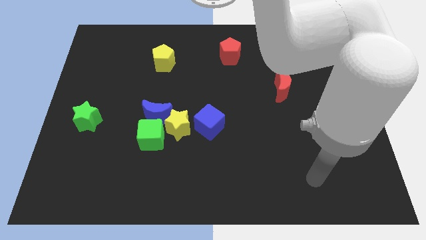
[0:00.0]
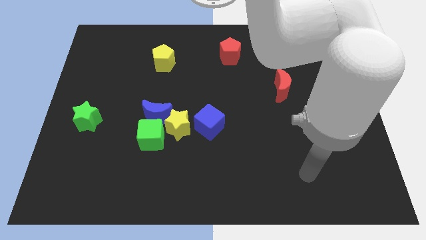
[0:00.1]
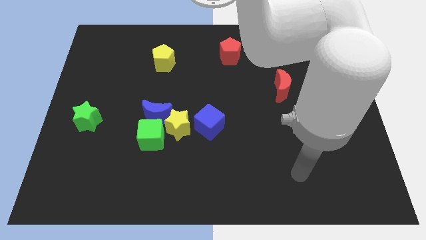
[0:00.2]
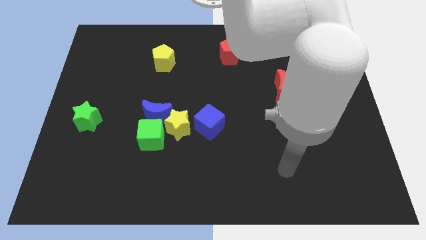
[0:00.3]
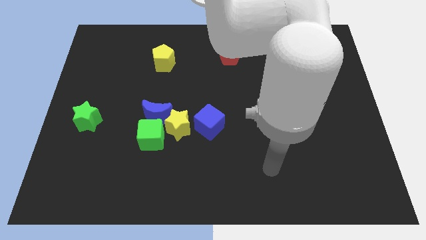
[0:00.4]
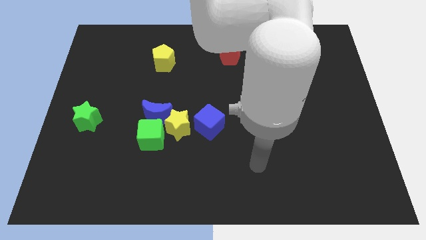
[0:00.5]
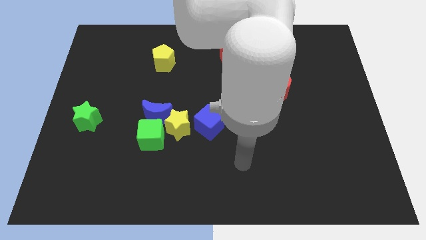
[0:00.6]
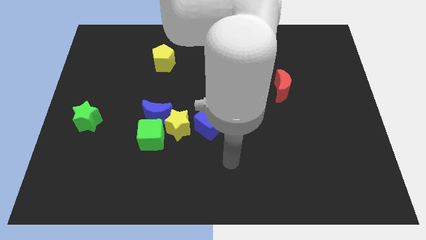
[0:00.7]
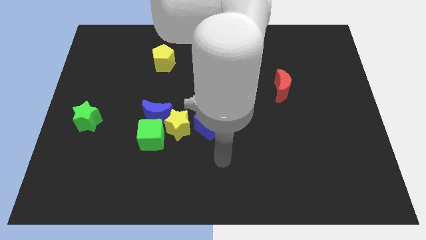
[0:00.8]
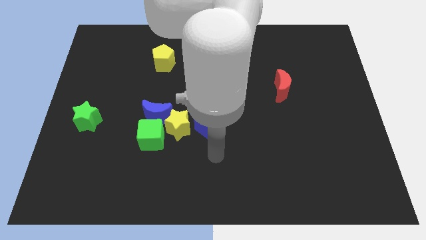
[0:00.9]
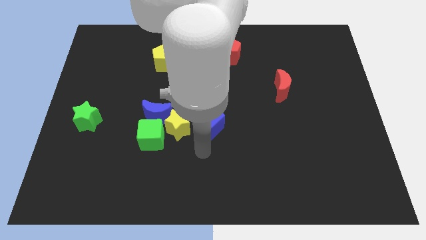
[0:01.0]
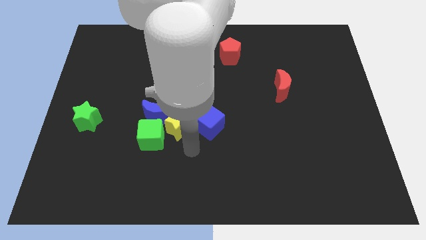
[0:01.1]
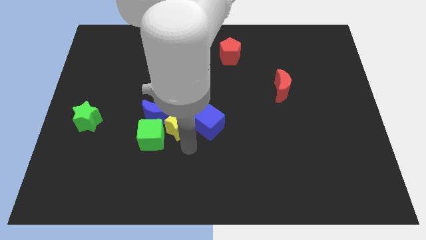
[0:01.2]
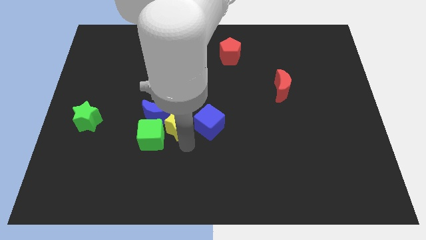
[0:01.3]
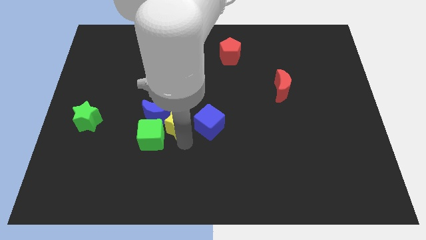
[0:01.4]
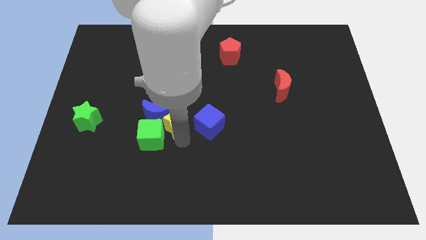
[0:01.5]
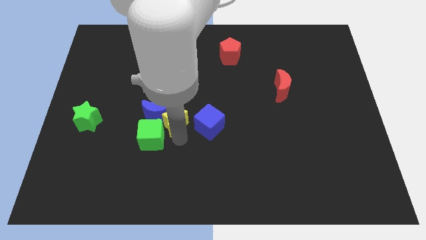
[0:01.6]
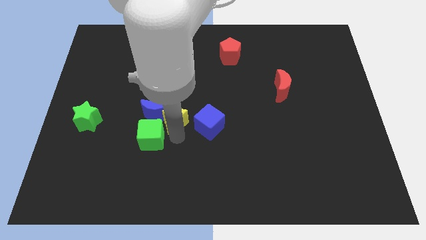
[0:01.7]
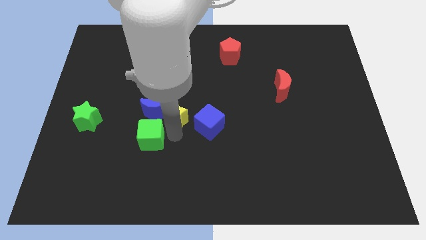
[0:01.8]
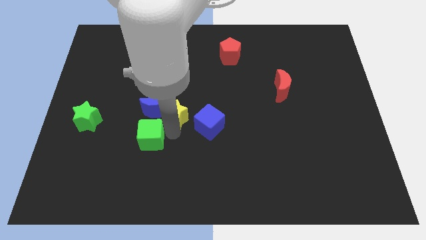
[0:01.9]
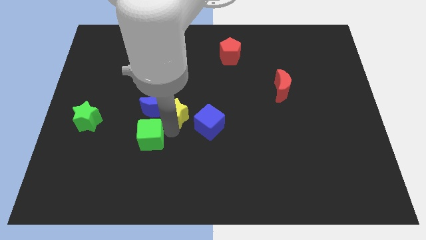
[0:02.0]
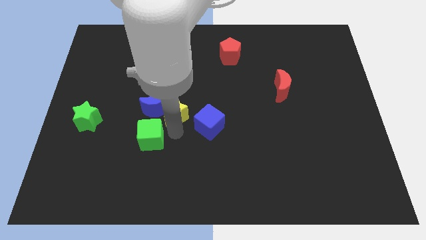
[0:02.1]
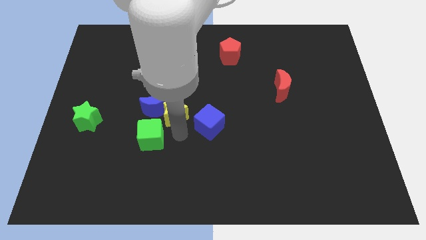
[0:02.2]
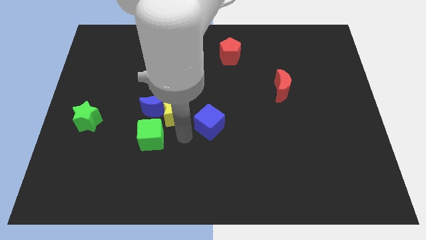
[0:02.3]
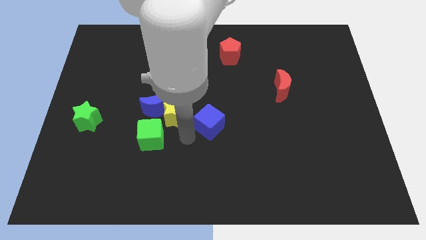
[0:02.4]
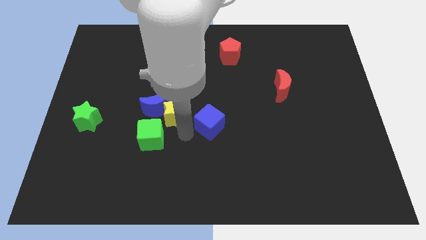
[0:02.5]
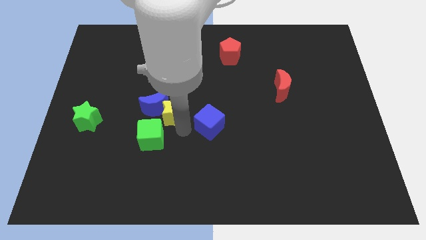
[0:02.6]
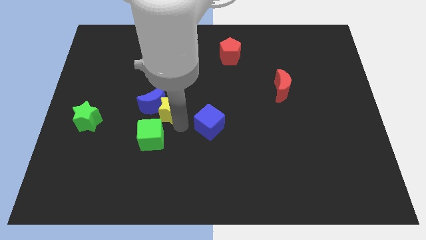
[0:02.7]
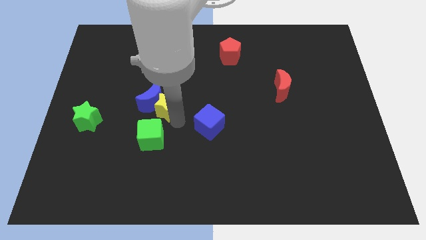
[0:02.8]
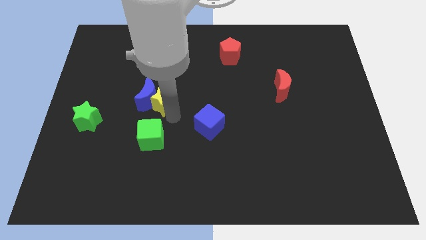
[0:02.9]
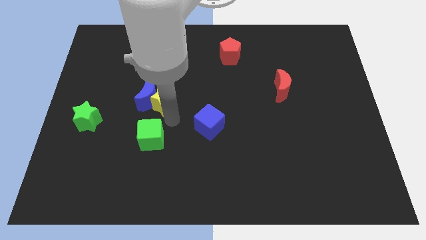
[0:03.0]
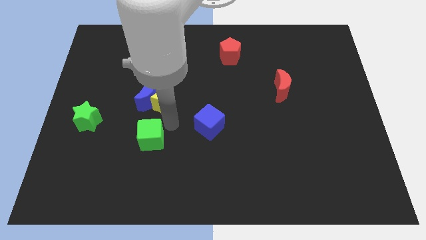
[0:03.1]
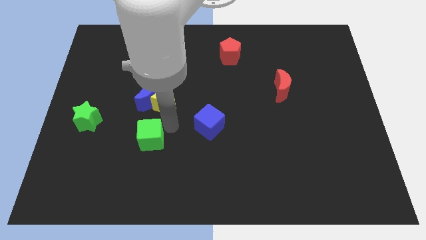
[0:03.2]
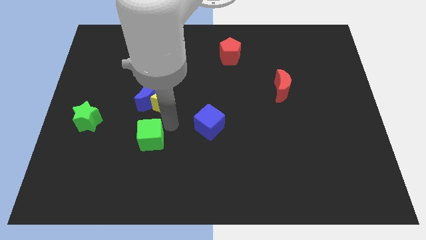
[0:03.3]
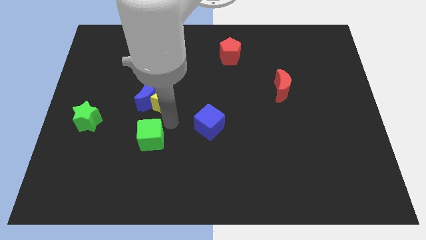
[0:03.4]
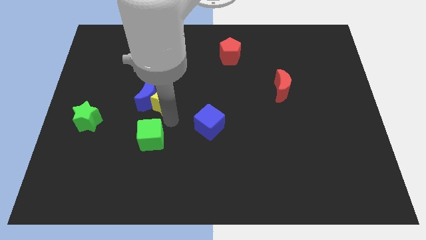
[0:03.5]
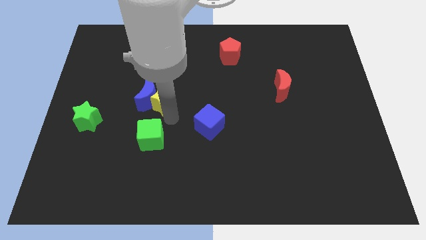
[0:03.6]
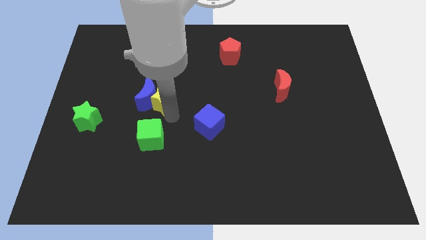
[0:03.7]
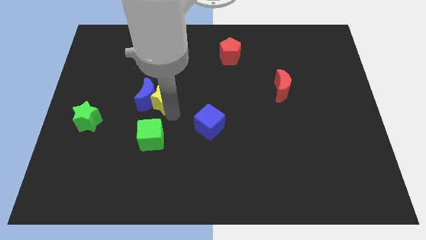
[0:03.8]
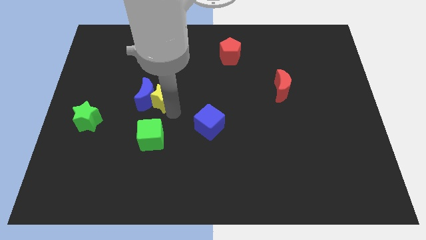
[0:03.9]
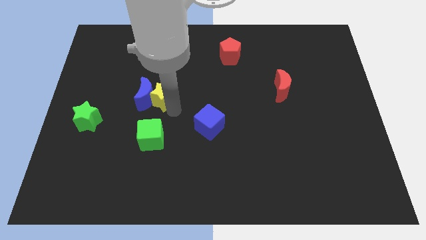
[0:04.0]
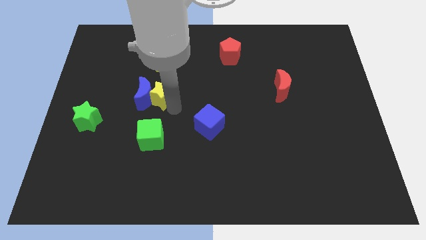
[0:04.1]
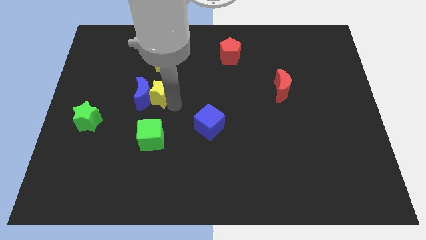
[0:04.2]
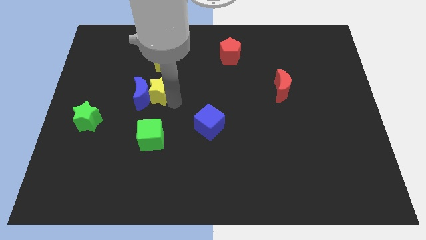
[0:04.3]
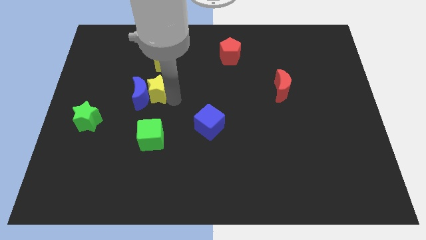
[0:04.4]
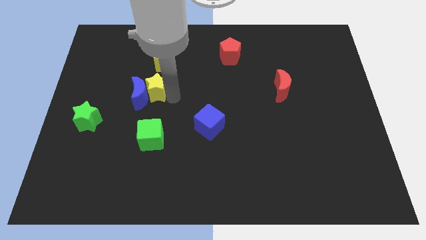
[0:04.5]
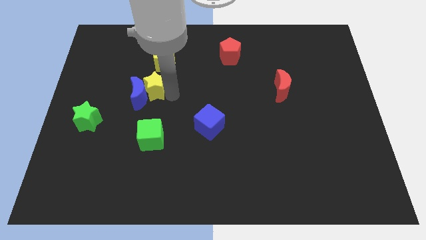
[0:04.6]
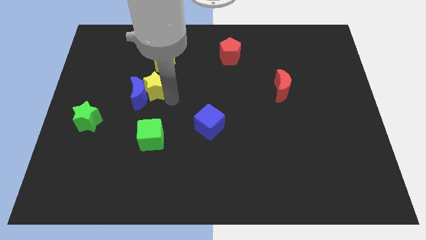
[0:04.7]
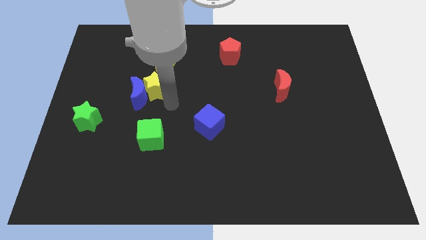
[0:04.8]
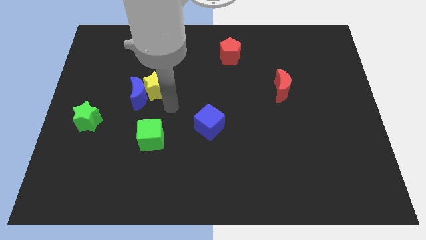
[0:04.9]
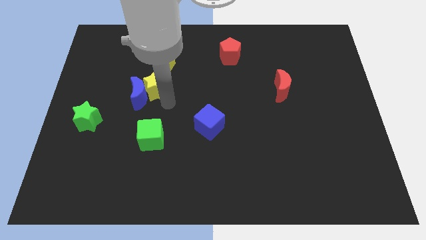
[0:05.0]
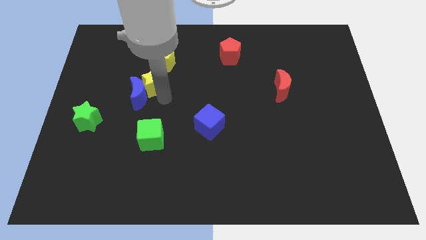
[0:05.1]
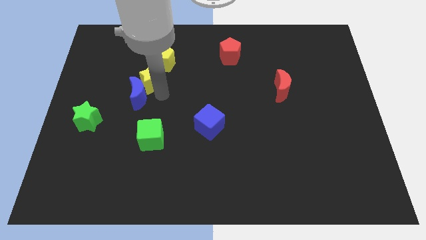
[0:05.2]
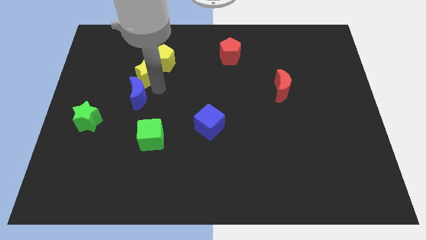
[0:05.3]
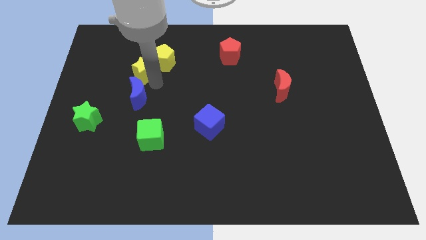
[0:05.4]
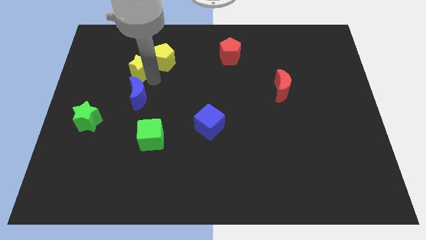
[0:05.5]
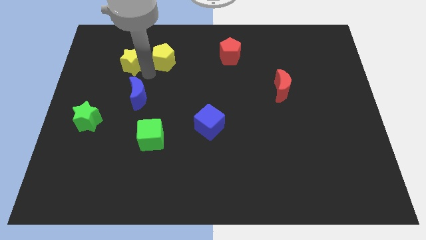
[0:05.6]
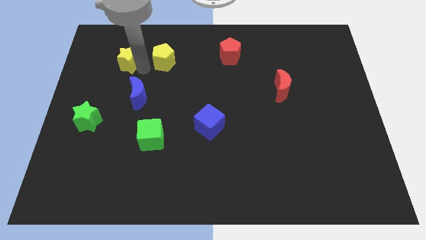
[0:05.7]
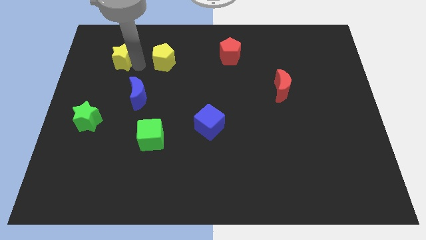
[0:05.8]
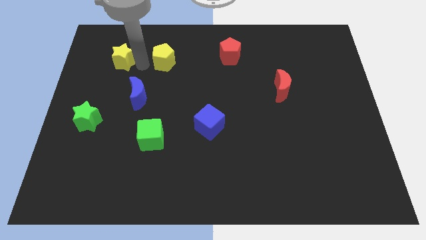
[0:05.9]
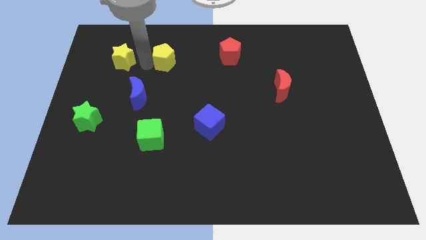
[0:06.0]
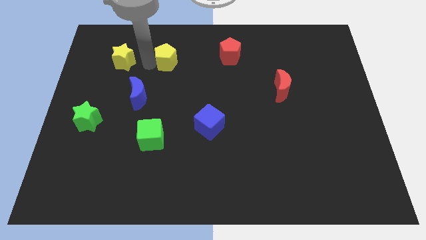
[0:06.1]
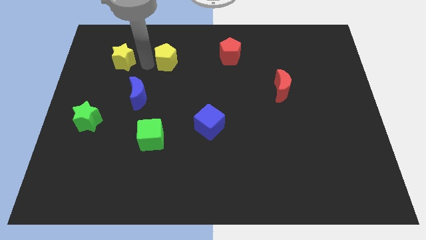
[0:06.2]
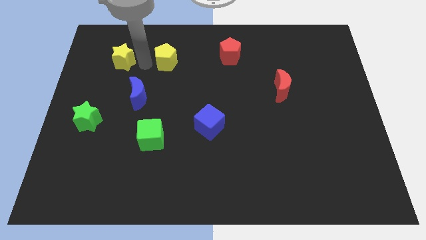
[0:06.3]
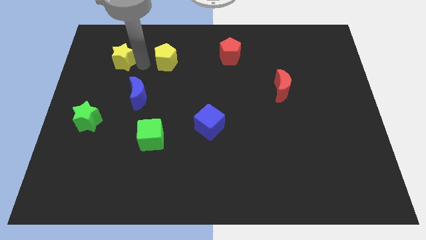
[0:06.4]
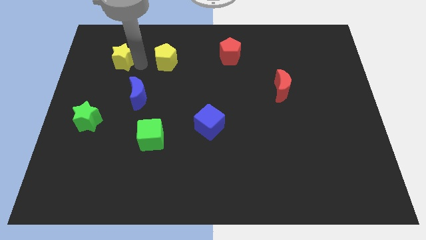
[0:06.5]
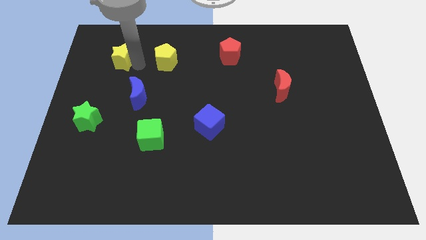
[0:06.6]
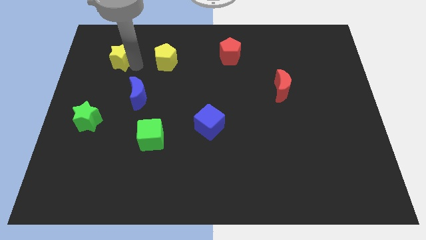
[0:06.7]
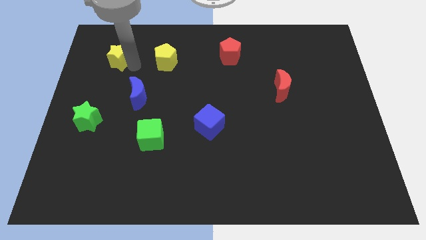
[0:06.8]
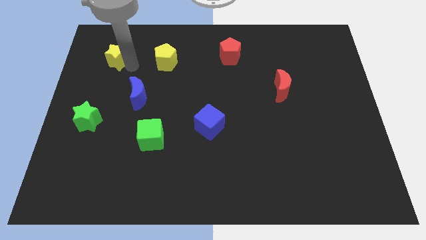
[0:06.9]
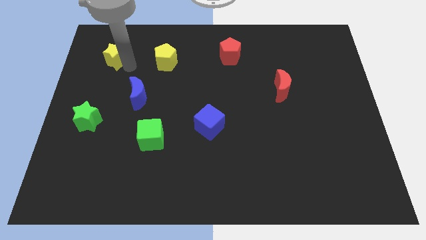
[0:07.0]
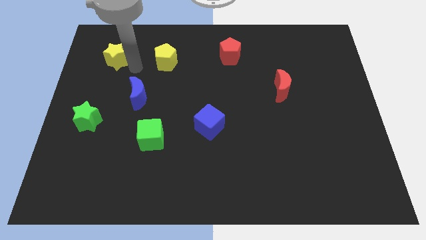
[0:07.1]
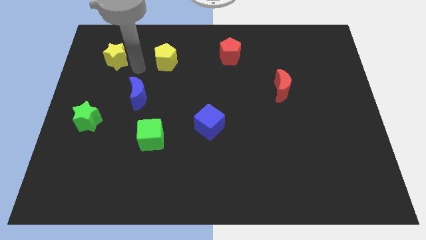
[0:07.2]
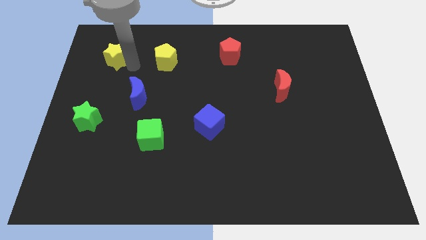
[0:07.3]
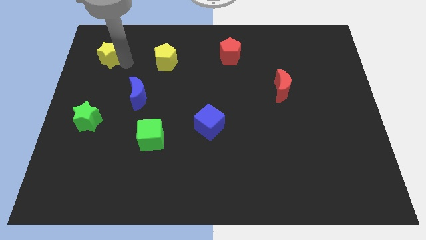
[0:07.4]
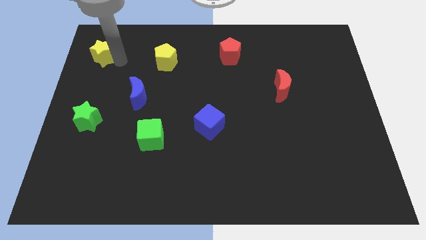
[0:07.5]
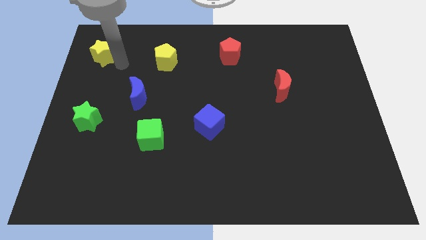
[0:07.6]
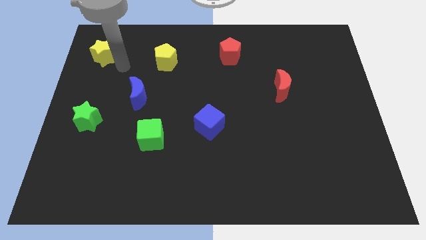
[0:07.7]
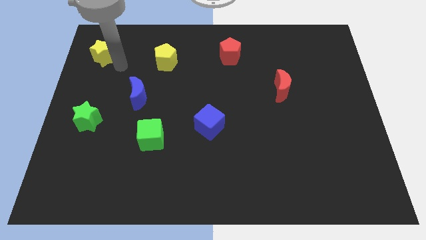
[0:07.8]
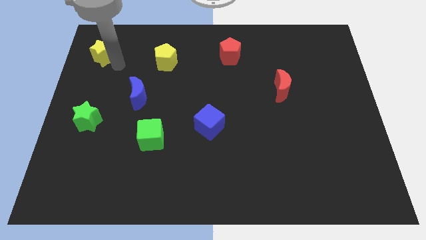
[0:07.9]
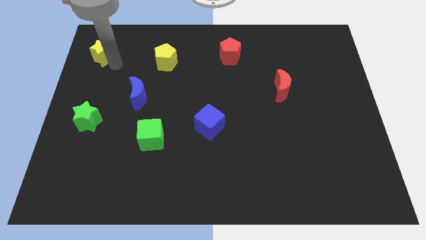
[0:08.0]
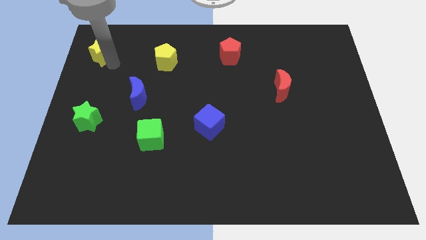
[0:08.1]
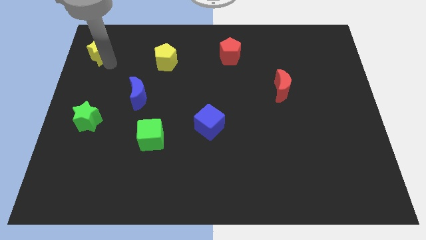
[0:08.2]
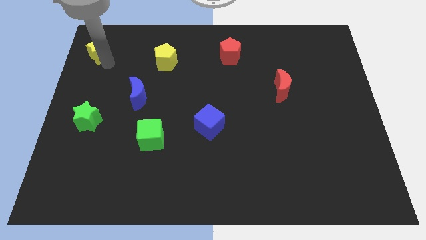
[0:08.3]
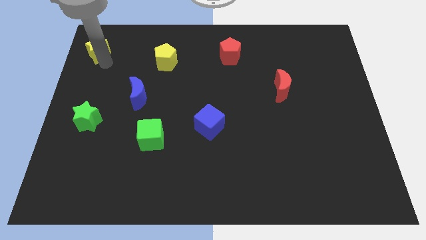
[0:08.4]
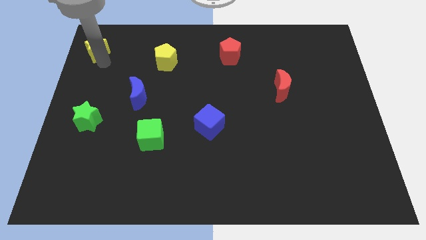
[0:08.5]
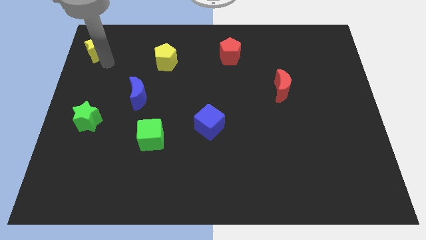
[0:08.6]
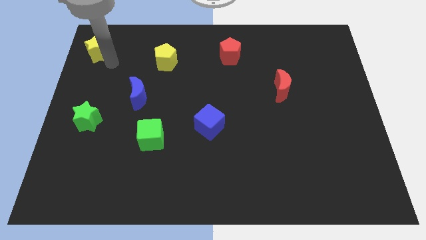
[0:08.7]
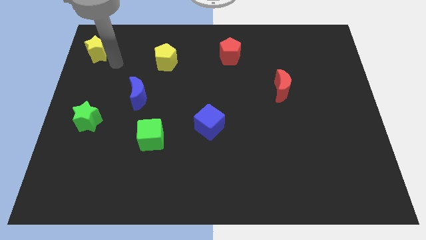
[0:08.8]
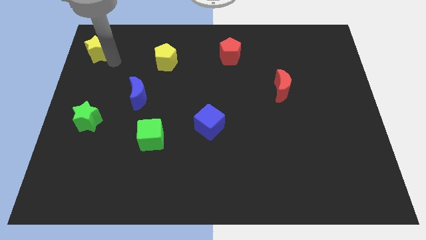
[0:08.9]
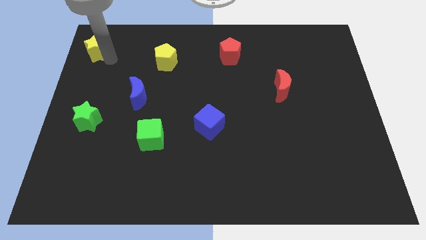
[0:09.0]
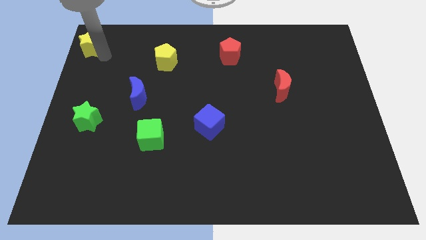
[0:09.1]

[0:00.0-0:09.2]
move the yellow star to the top left of the board
